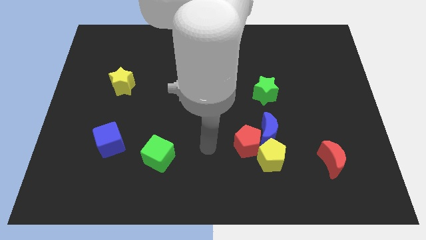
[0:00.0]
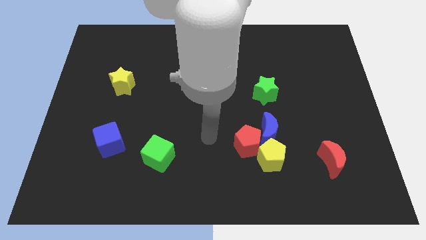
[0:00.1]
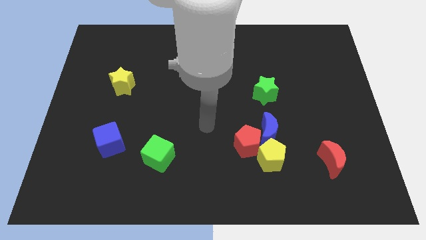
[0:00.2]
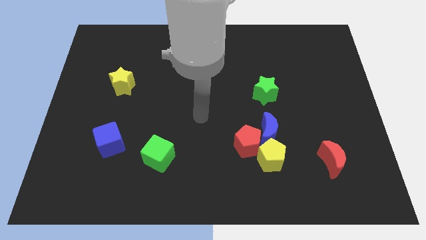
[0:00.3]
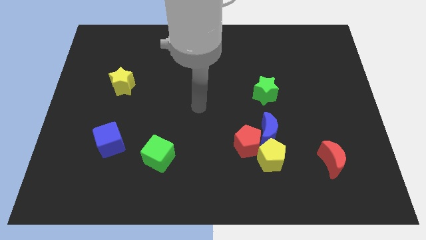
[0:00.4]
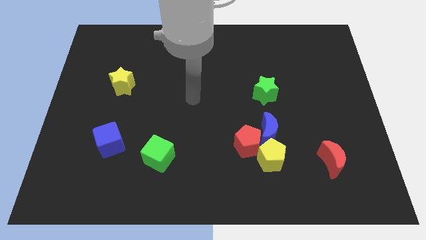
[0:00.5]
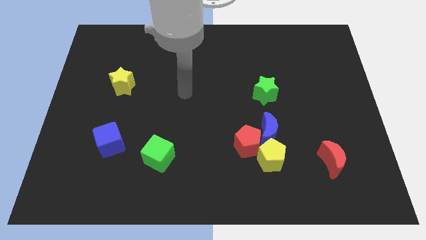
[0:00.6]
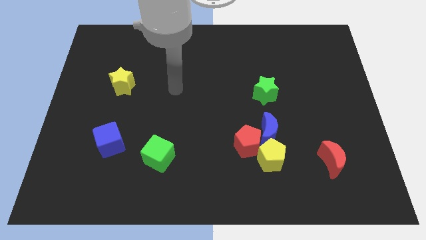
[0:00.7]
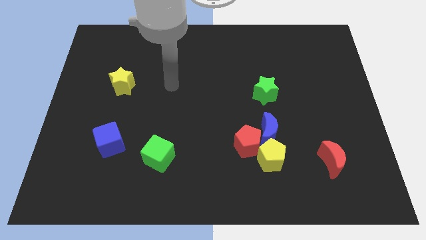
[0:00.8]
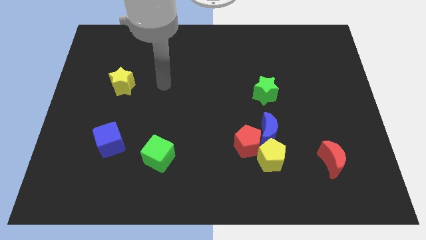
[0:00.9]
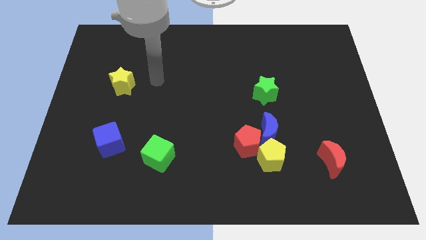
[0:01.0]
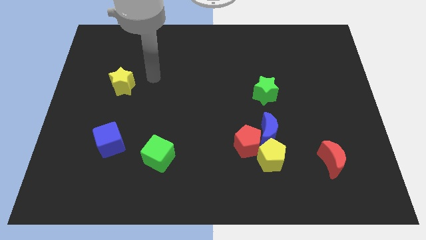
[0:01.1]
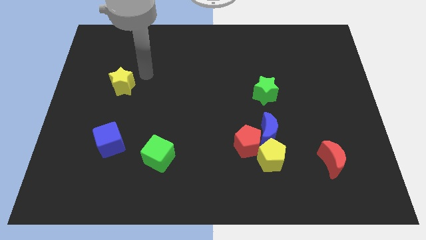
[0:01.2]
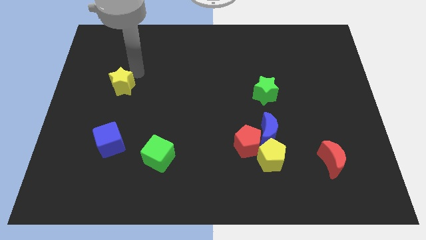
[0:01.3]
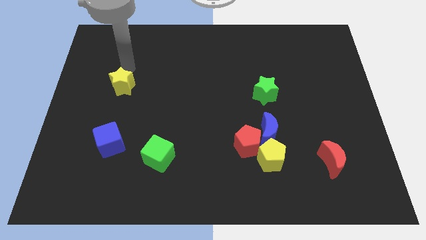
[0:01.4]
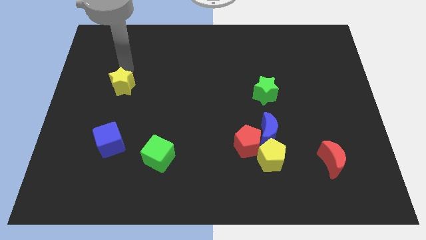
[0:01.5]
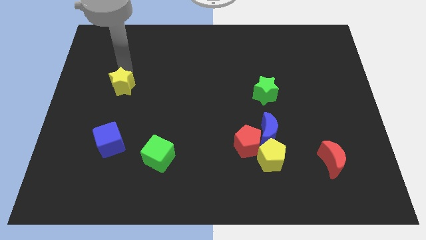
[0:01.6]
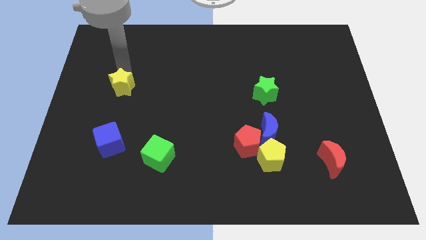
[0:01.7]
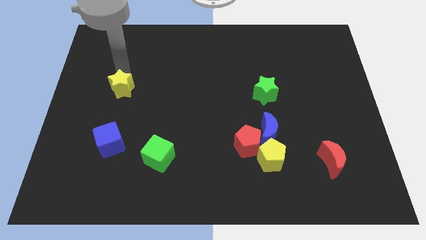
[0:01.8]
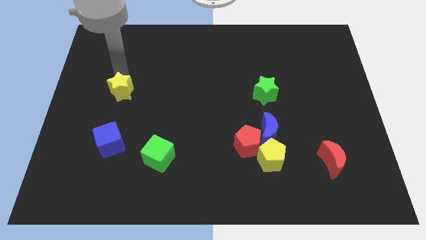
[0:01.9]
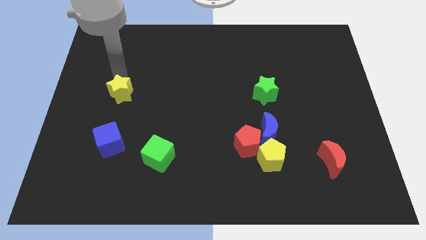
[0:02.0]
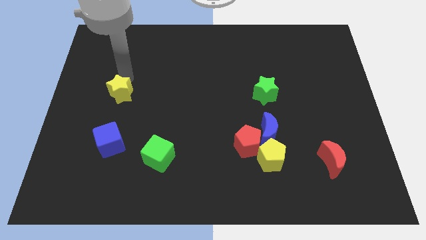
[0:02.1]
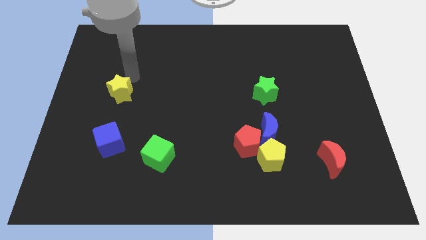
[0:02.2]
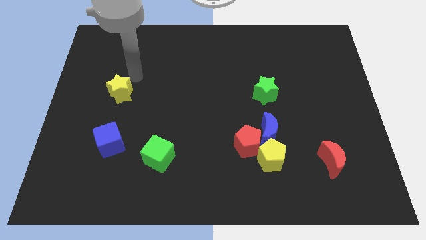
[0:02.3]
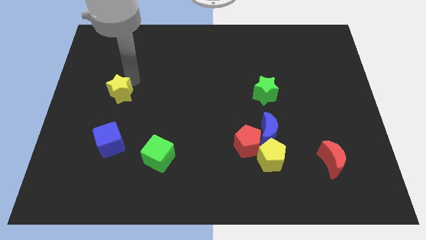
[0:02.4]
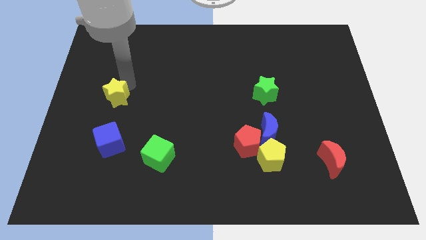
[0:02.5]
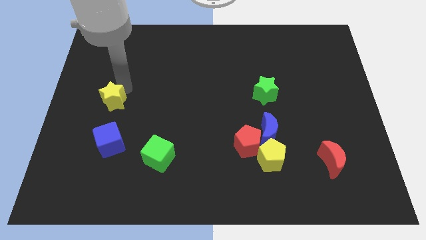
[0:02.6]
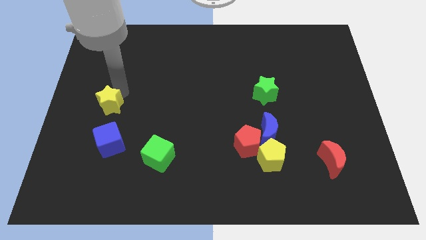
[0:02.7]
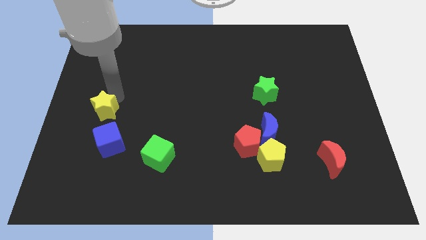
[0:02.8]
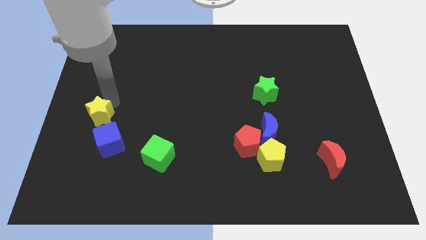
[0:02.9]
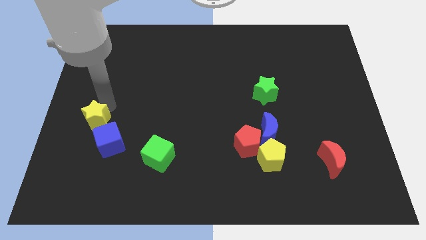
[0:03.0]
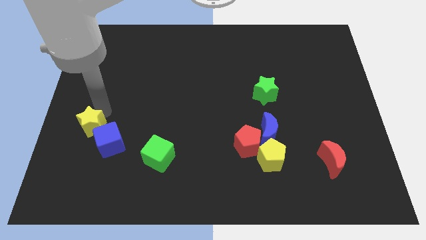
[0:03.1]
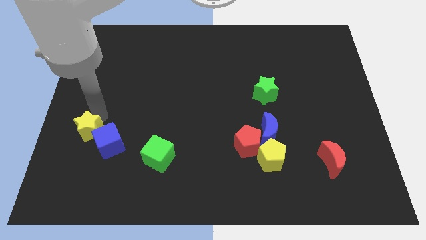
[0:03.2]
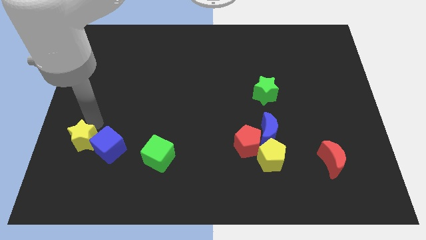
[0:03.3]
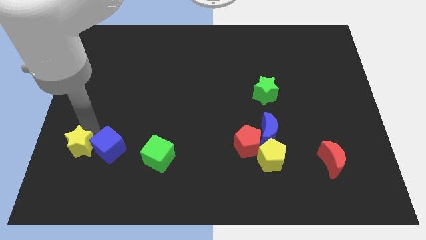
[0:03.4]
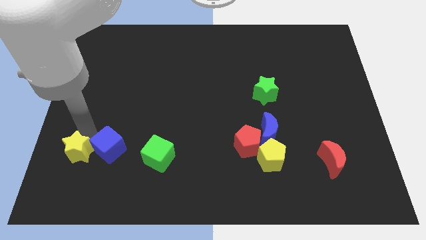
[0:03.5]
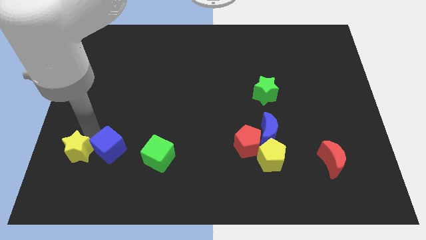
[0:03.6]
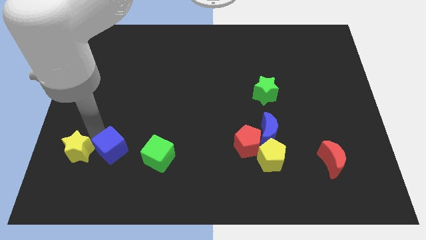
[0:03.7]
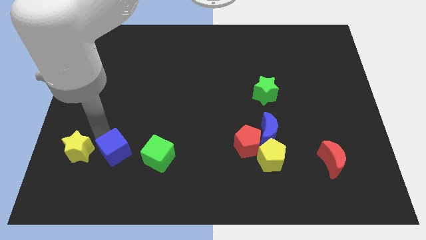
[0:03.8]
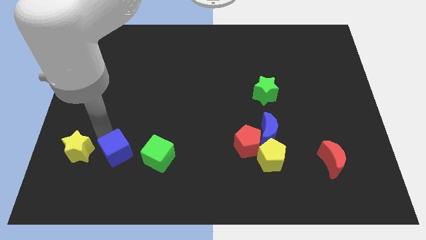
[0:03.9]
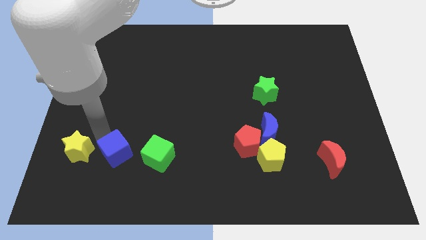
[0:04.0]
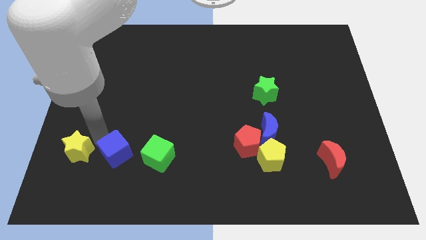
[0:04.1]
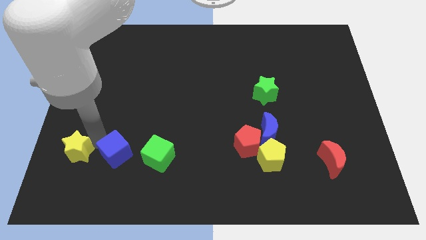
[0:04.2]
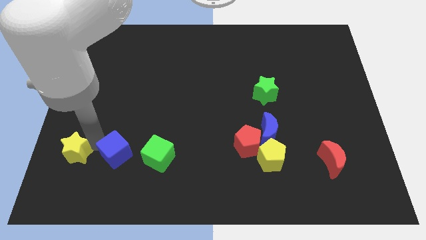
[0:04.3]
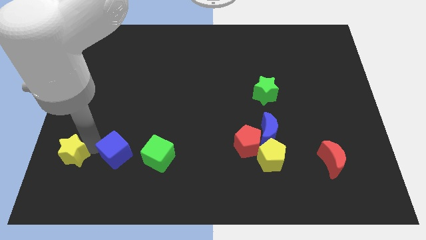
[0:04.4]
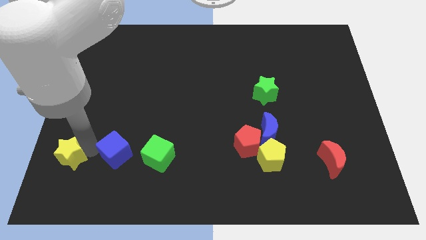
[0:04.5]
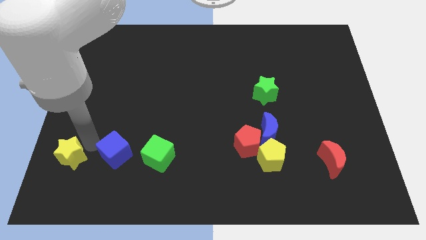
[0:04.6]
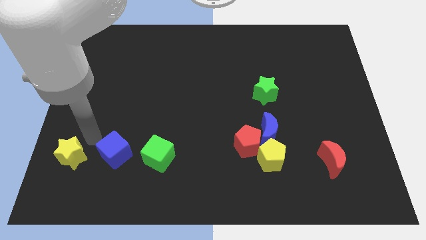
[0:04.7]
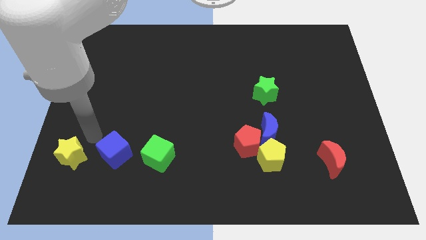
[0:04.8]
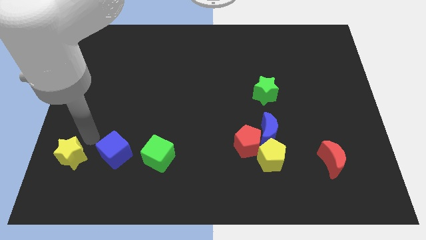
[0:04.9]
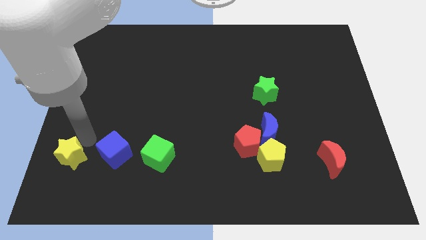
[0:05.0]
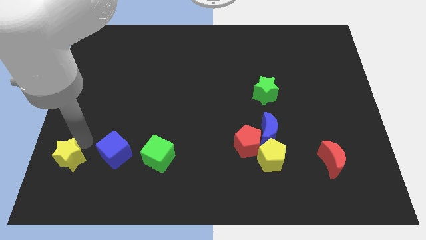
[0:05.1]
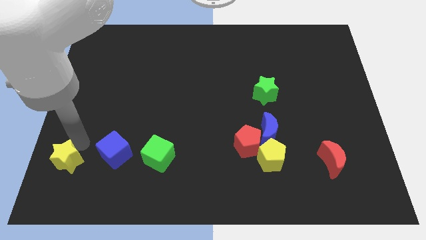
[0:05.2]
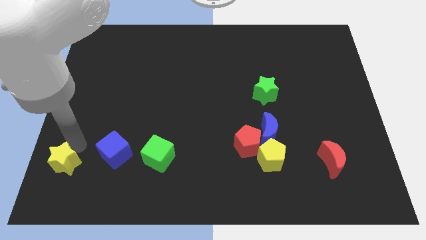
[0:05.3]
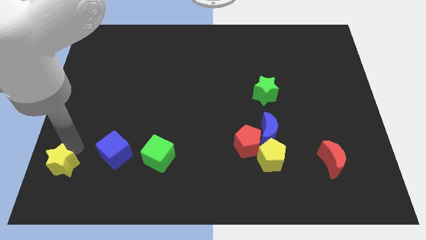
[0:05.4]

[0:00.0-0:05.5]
push the yellow star to the lower left corner
